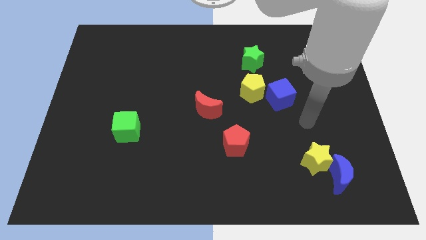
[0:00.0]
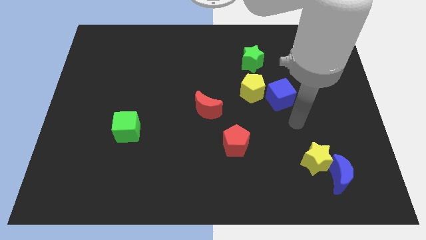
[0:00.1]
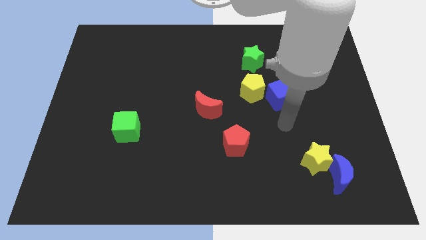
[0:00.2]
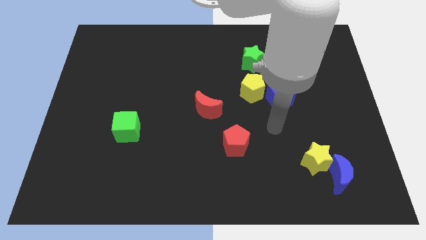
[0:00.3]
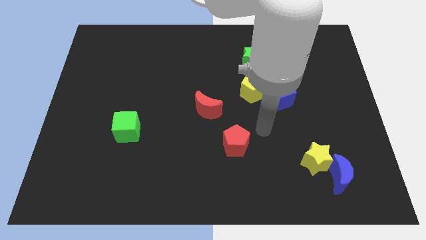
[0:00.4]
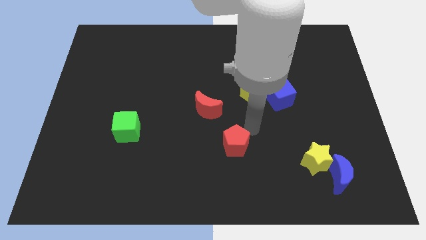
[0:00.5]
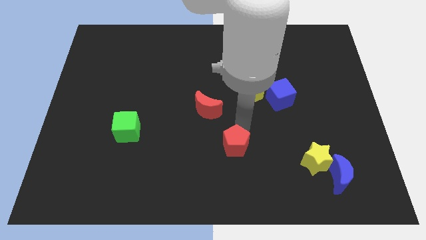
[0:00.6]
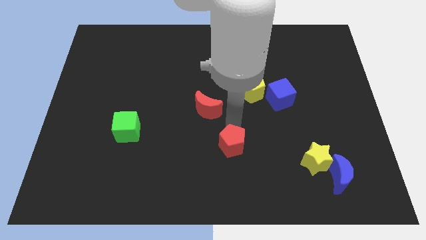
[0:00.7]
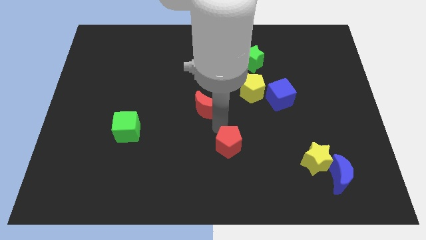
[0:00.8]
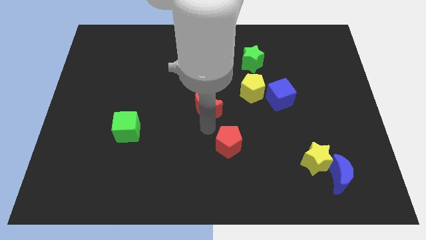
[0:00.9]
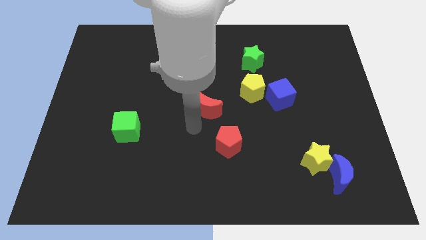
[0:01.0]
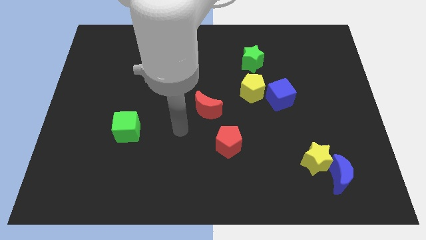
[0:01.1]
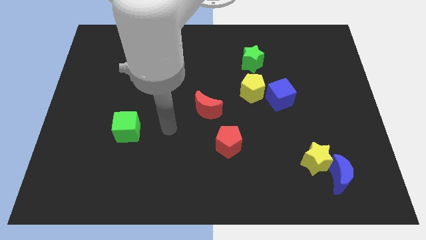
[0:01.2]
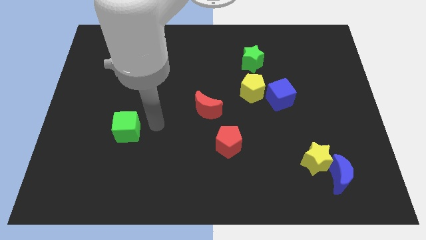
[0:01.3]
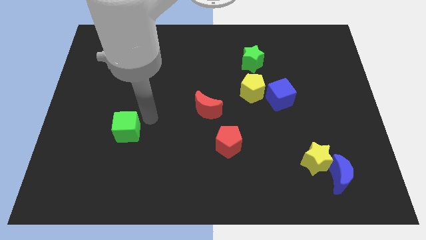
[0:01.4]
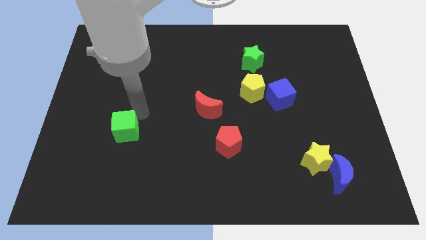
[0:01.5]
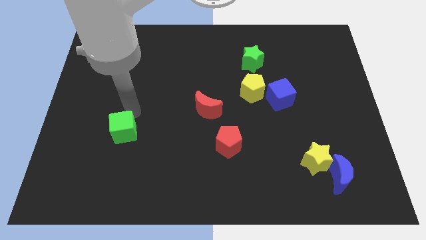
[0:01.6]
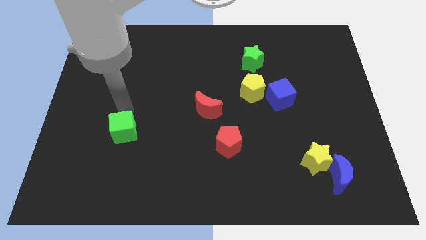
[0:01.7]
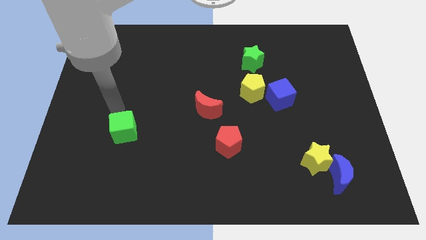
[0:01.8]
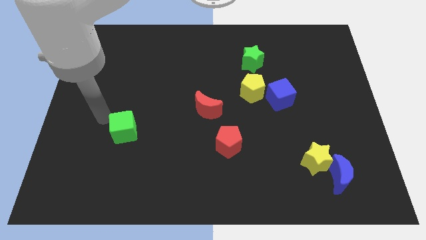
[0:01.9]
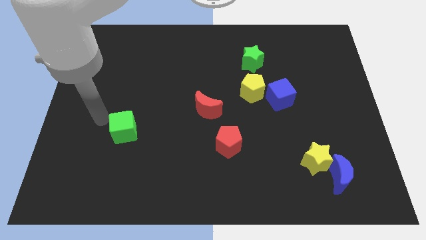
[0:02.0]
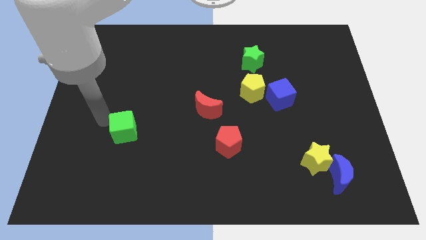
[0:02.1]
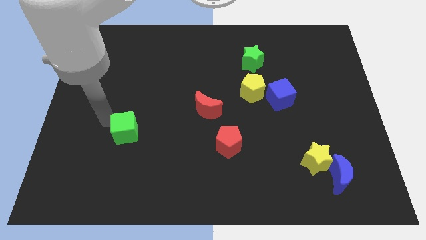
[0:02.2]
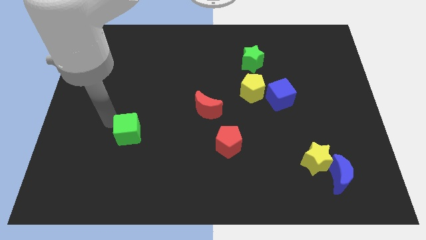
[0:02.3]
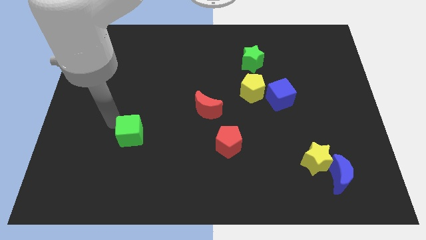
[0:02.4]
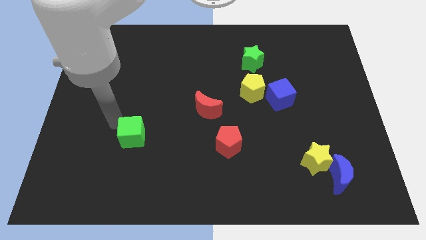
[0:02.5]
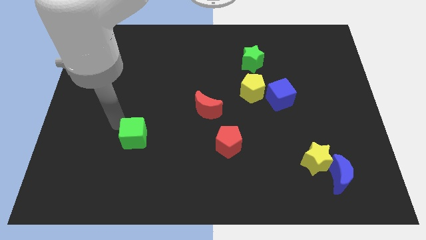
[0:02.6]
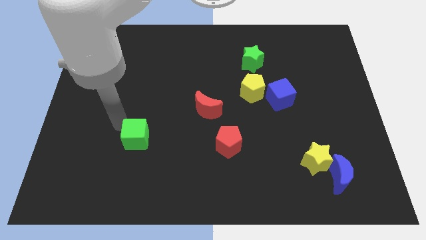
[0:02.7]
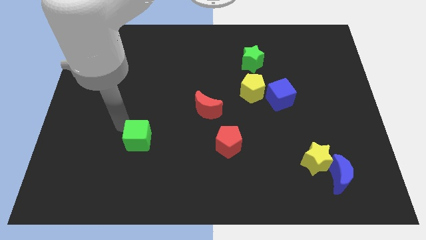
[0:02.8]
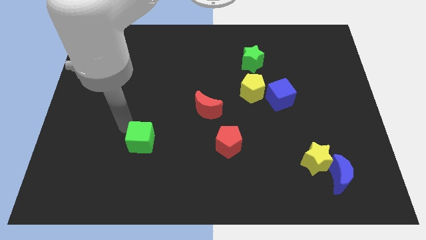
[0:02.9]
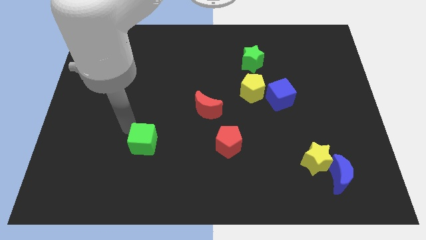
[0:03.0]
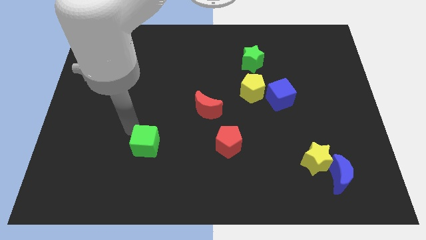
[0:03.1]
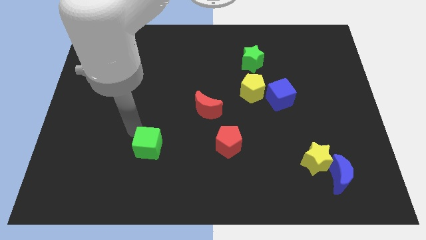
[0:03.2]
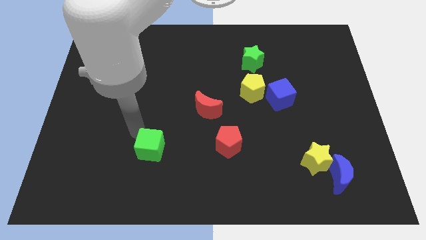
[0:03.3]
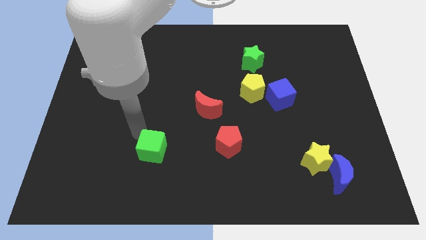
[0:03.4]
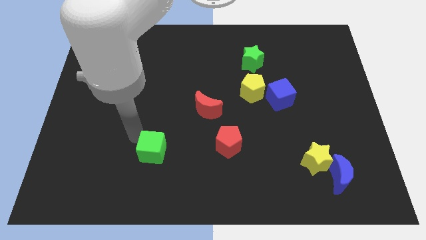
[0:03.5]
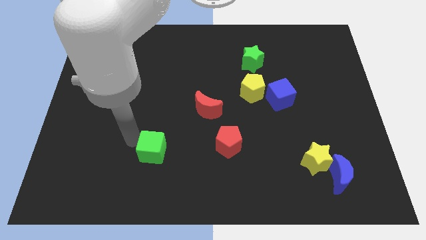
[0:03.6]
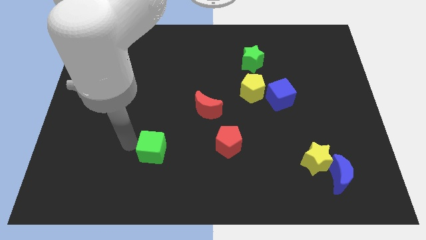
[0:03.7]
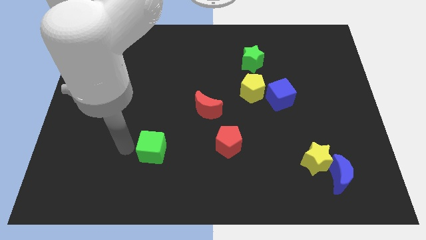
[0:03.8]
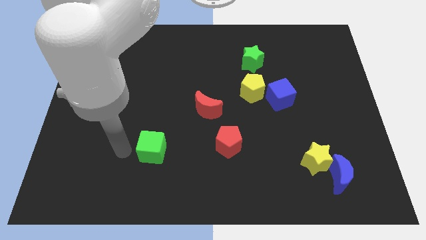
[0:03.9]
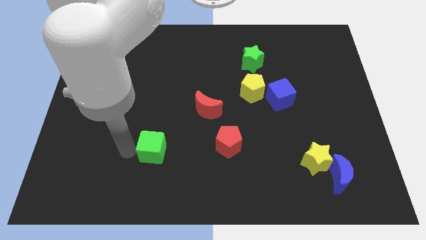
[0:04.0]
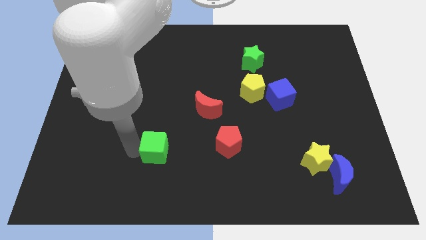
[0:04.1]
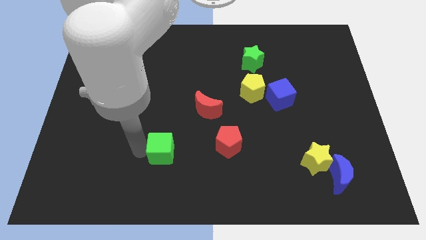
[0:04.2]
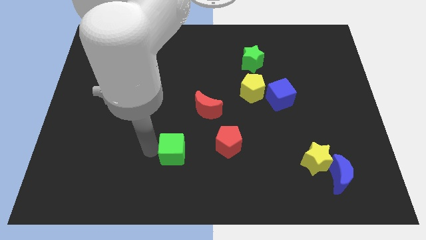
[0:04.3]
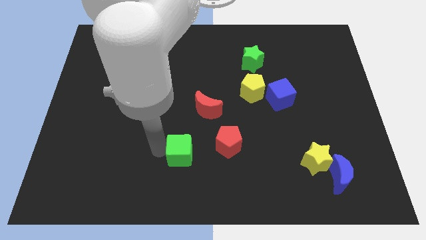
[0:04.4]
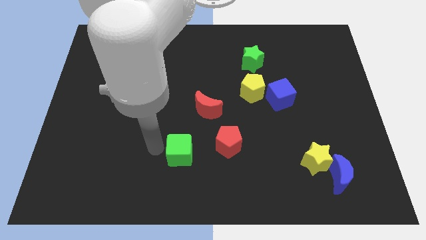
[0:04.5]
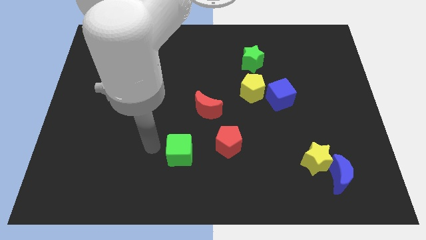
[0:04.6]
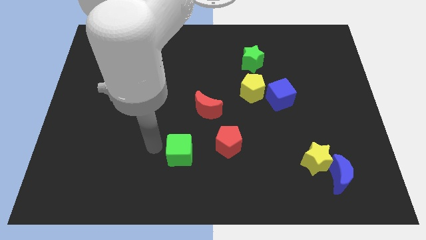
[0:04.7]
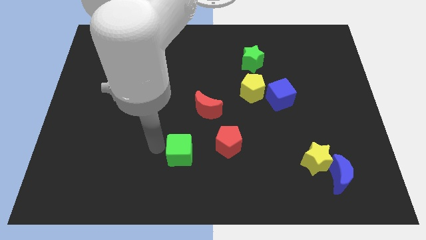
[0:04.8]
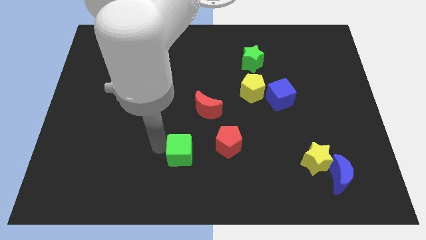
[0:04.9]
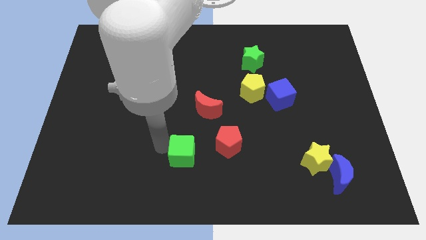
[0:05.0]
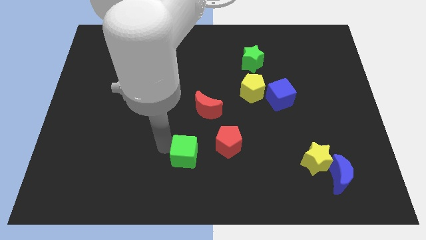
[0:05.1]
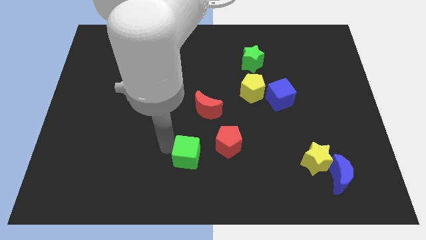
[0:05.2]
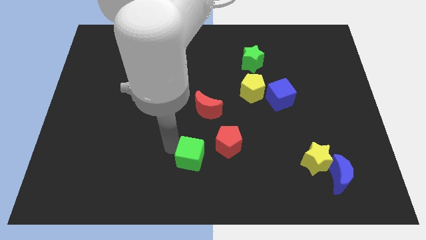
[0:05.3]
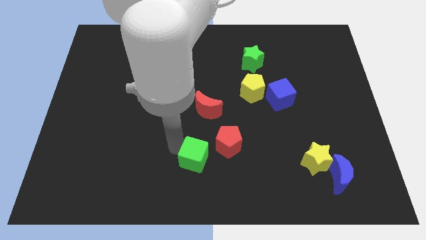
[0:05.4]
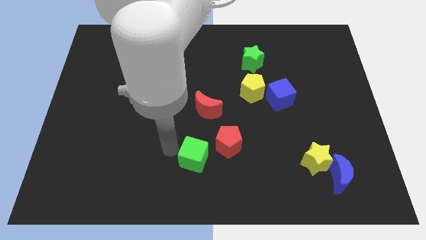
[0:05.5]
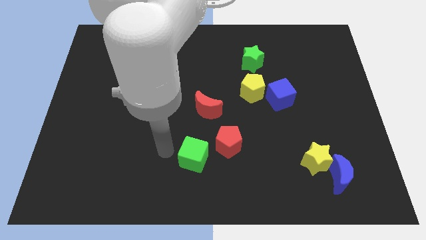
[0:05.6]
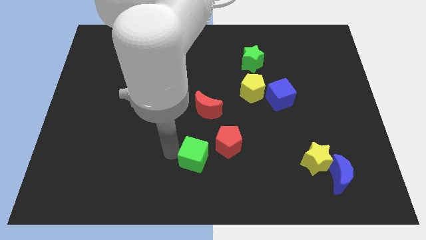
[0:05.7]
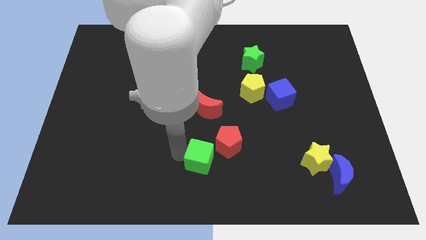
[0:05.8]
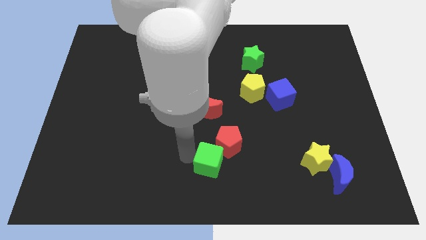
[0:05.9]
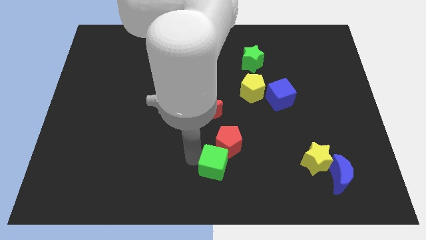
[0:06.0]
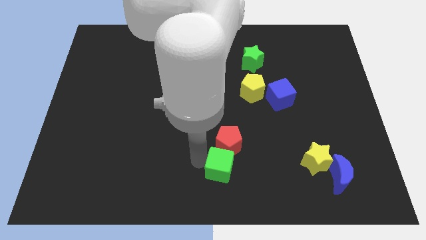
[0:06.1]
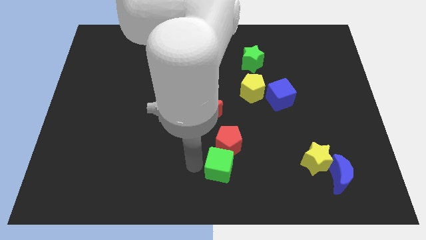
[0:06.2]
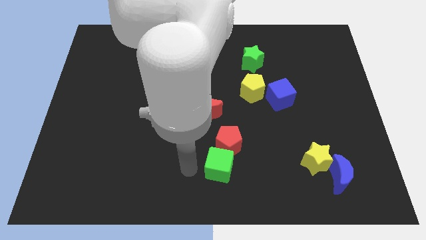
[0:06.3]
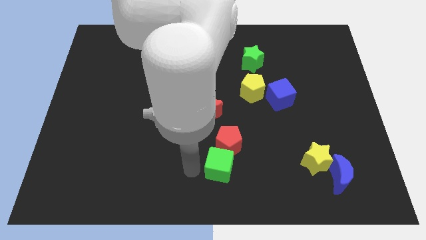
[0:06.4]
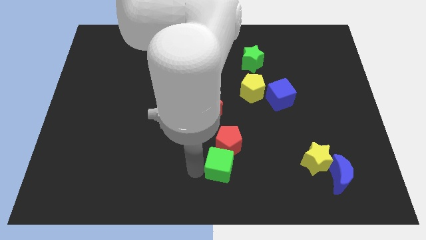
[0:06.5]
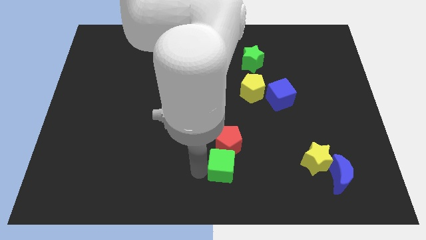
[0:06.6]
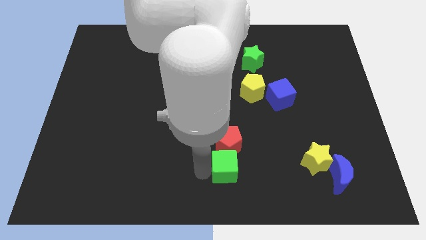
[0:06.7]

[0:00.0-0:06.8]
move the green cube to the bottom right side of the red pentagon
